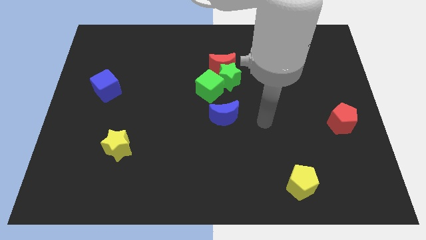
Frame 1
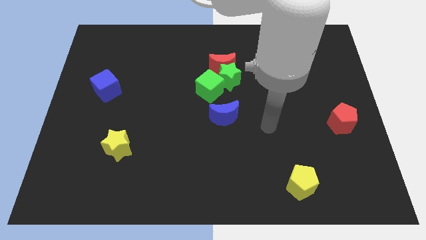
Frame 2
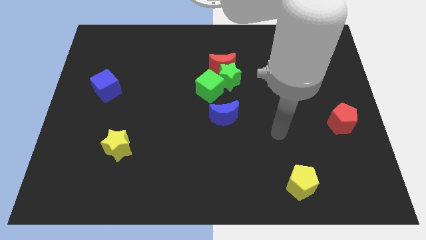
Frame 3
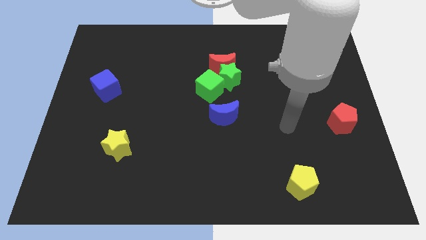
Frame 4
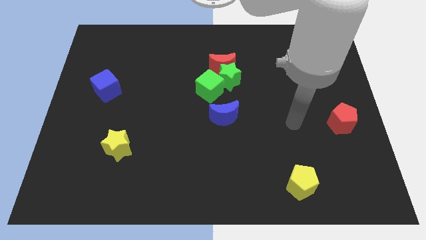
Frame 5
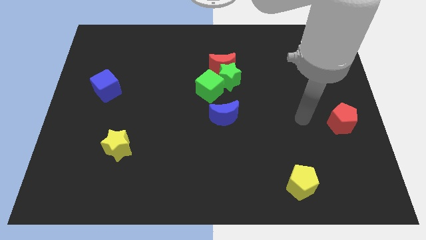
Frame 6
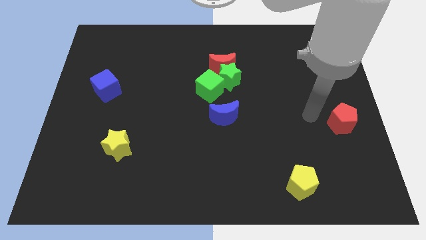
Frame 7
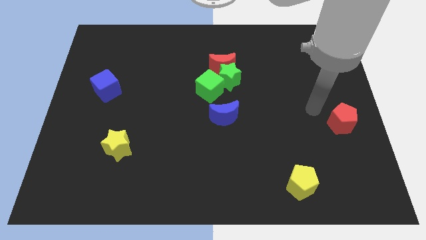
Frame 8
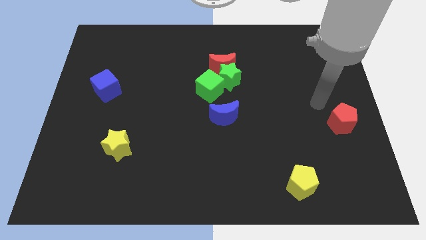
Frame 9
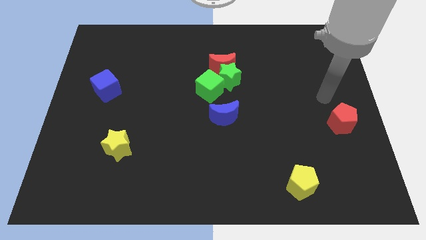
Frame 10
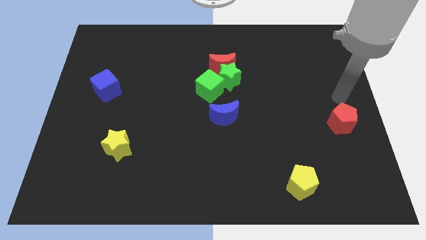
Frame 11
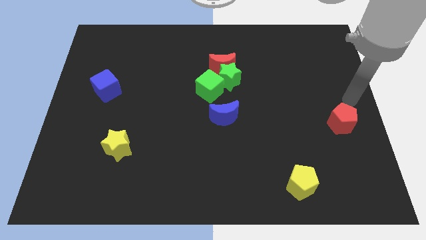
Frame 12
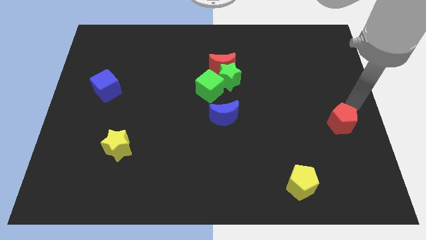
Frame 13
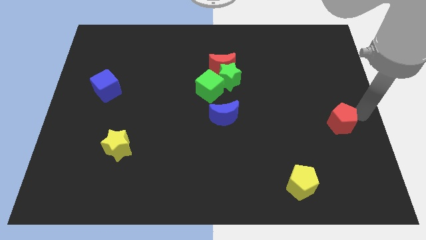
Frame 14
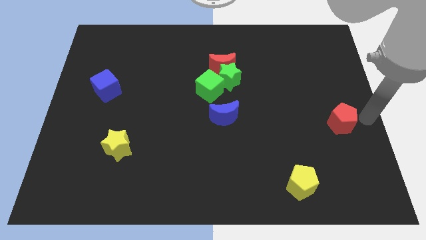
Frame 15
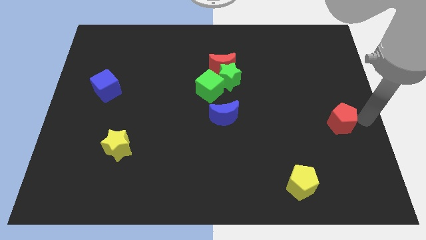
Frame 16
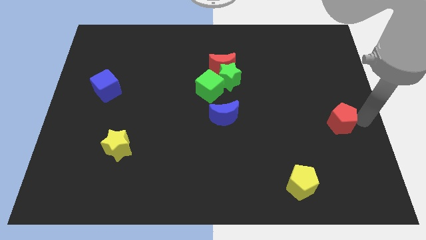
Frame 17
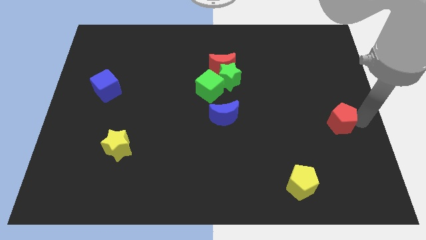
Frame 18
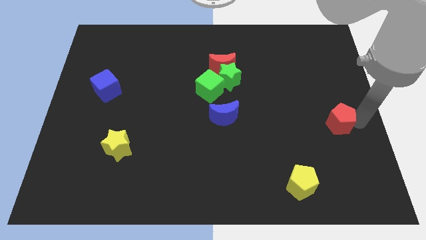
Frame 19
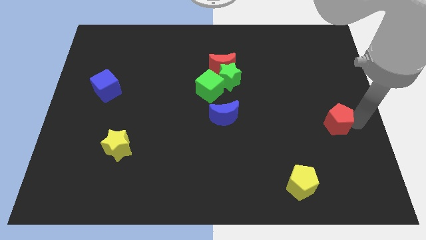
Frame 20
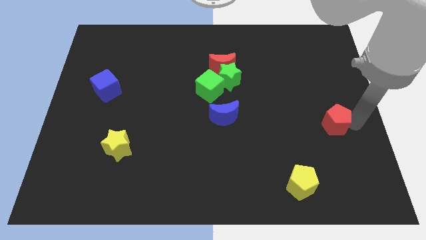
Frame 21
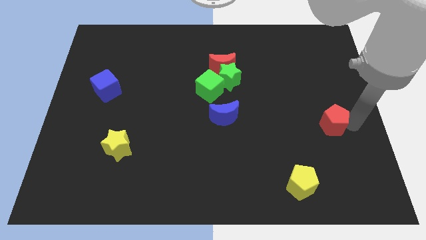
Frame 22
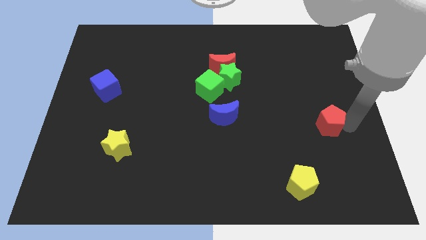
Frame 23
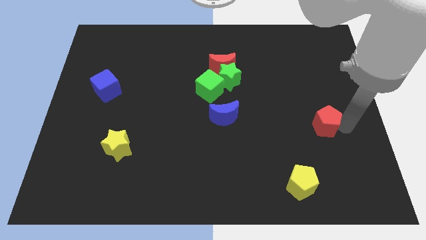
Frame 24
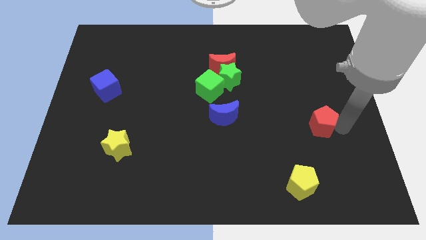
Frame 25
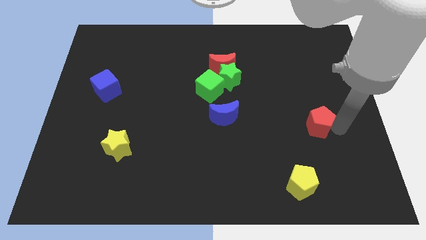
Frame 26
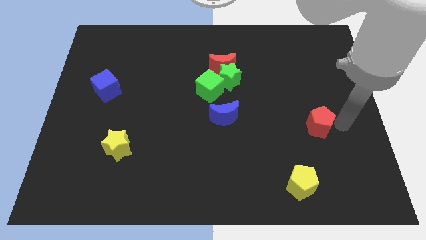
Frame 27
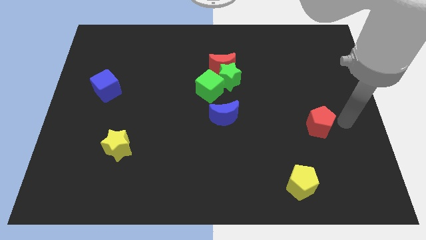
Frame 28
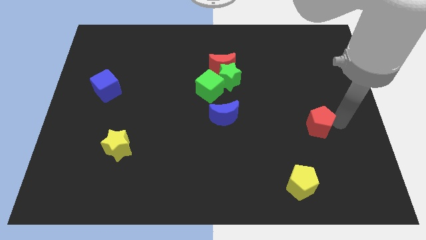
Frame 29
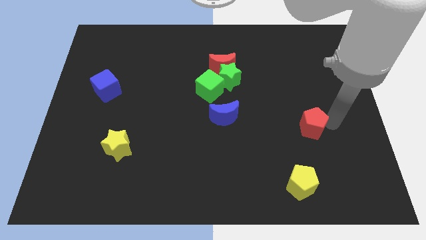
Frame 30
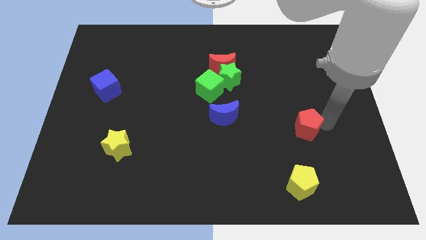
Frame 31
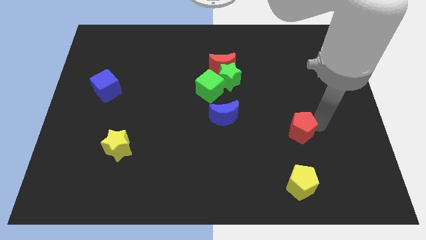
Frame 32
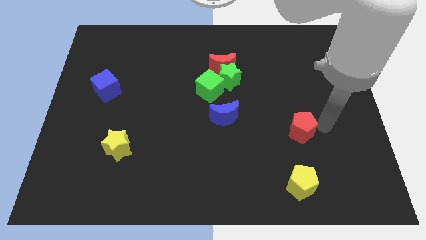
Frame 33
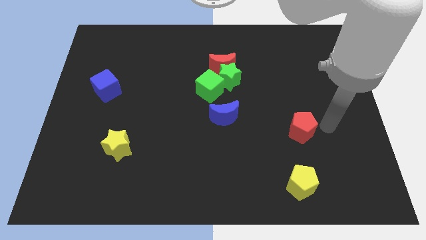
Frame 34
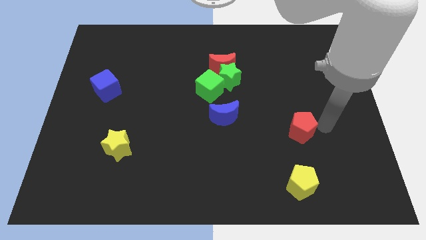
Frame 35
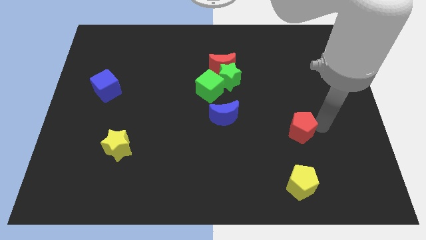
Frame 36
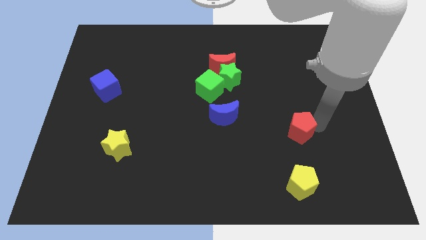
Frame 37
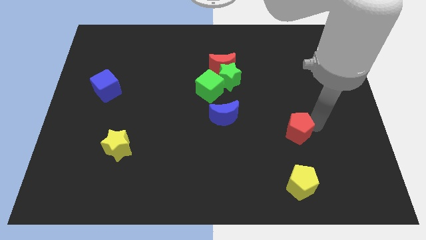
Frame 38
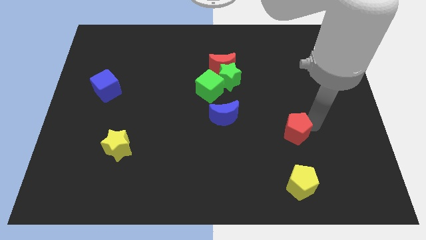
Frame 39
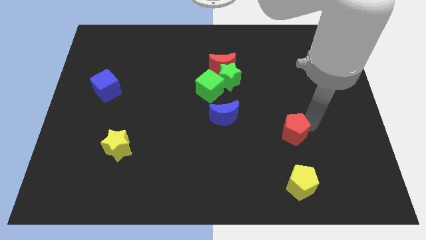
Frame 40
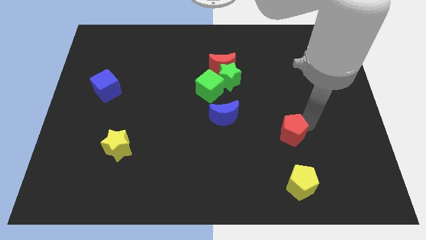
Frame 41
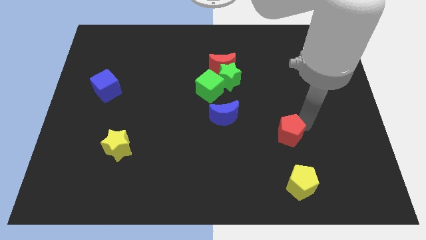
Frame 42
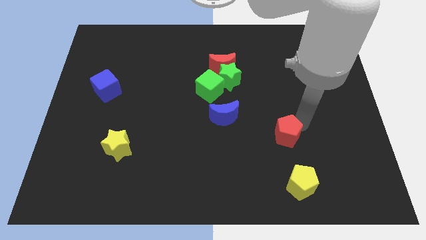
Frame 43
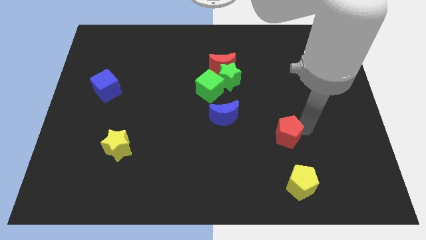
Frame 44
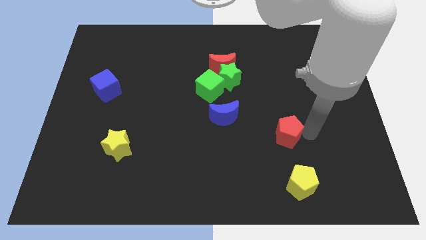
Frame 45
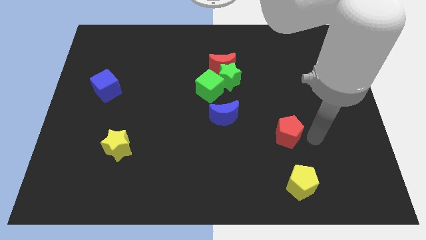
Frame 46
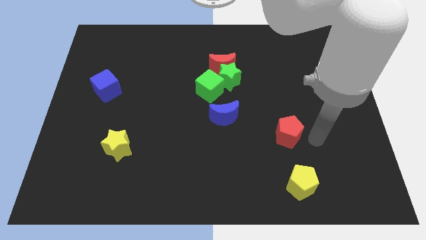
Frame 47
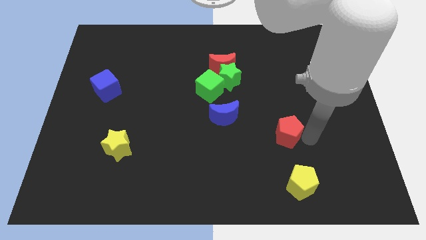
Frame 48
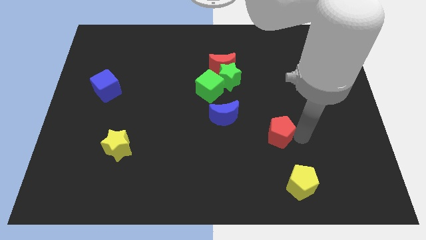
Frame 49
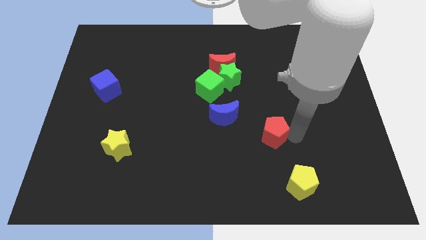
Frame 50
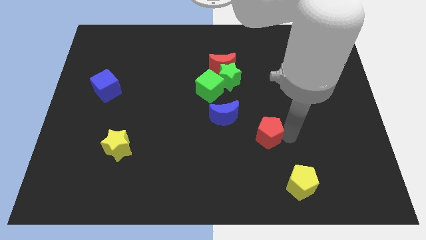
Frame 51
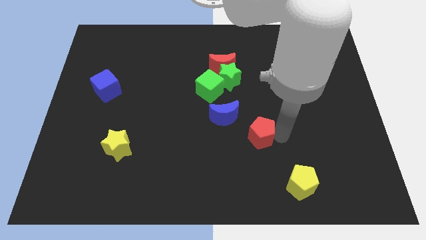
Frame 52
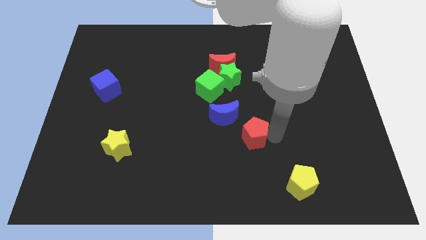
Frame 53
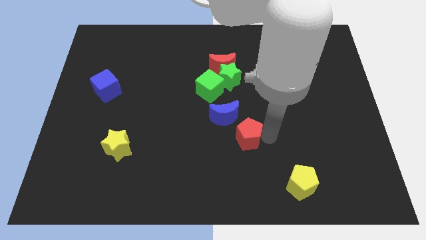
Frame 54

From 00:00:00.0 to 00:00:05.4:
move the red pentagon to the left

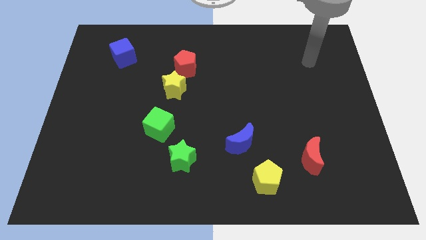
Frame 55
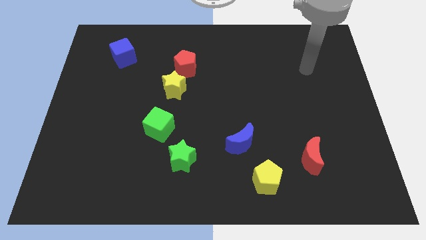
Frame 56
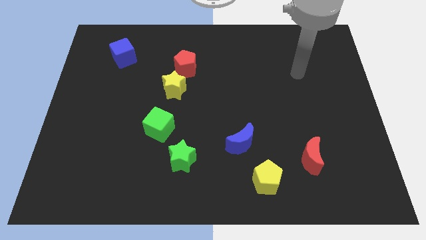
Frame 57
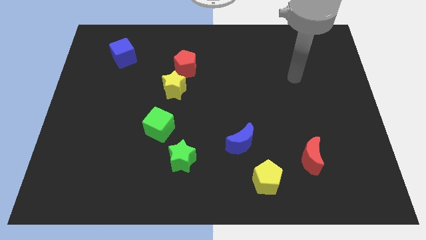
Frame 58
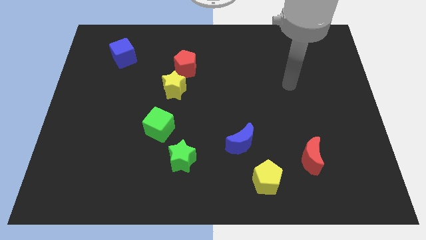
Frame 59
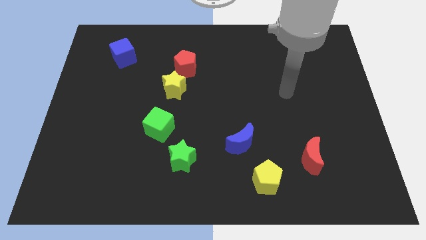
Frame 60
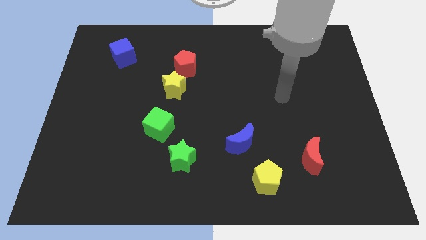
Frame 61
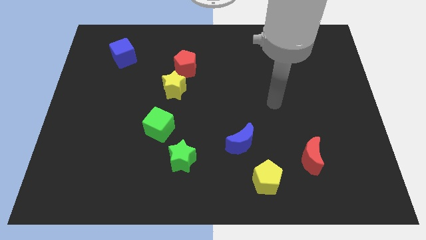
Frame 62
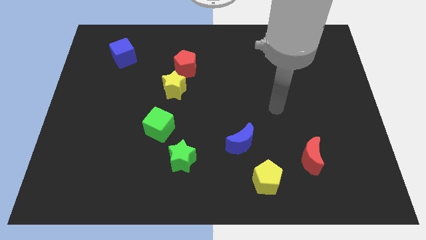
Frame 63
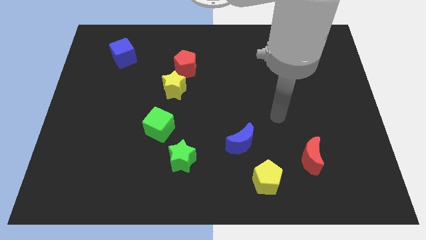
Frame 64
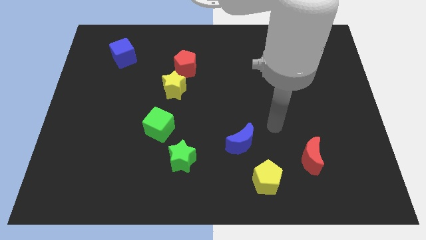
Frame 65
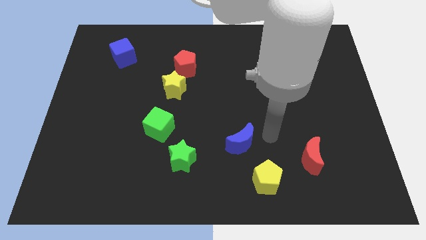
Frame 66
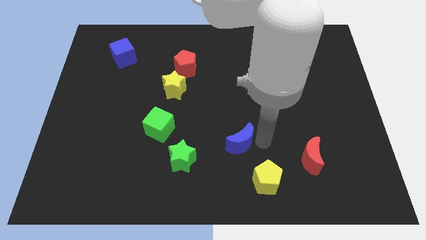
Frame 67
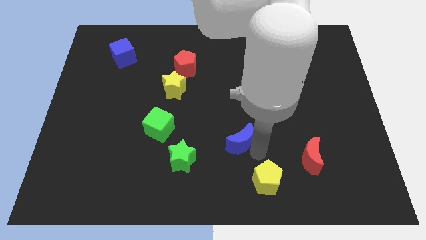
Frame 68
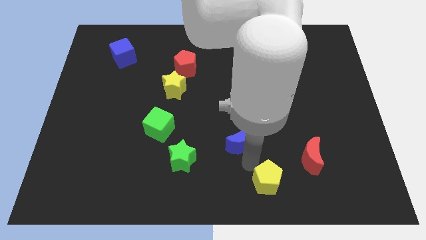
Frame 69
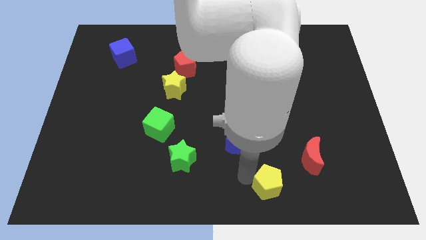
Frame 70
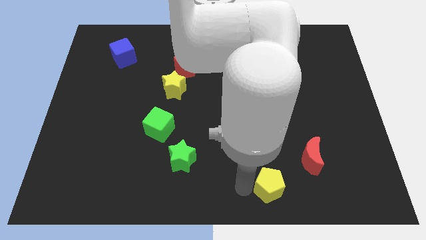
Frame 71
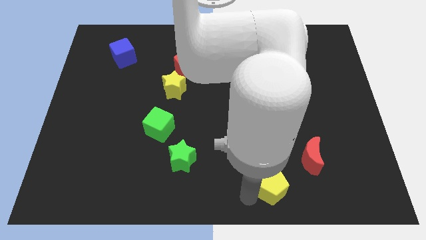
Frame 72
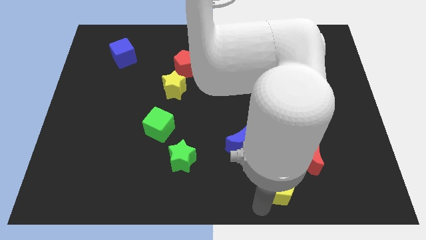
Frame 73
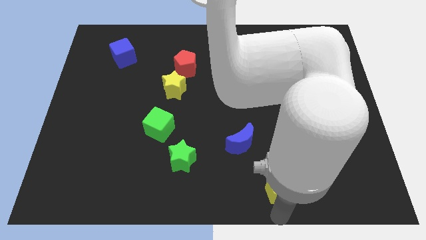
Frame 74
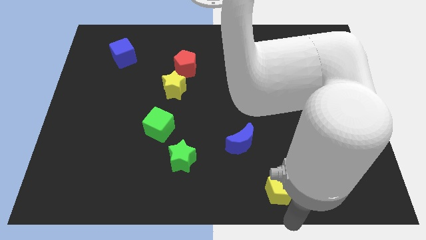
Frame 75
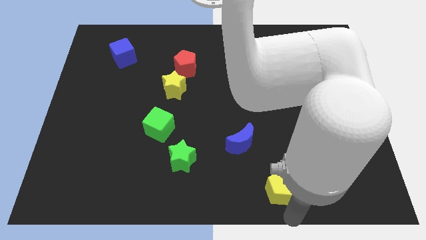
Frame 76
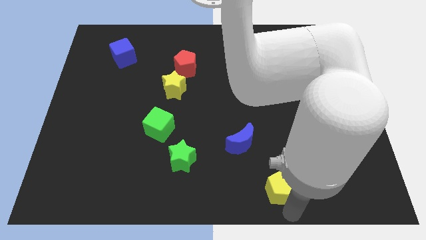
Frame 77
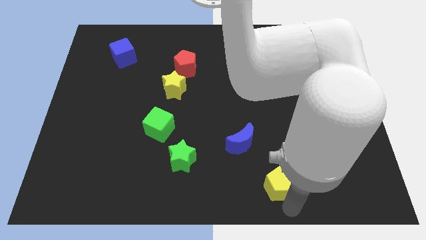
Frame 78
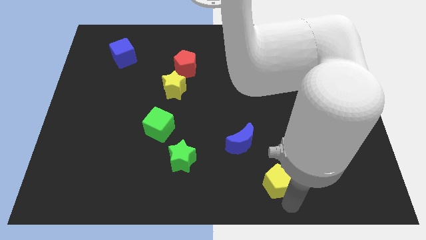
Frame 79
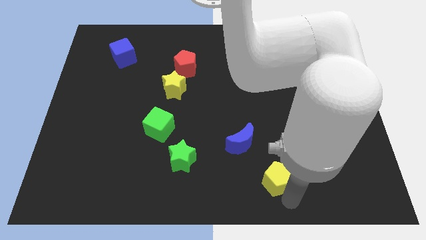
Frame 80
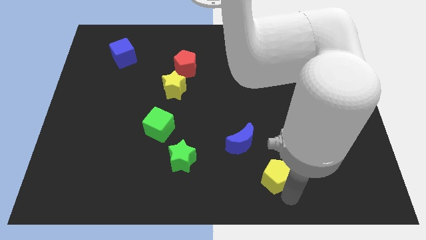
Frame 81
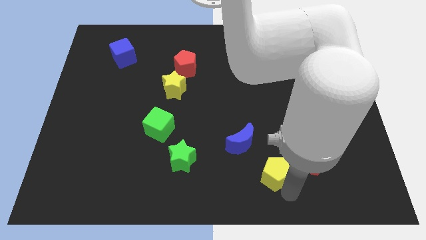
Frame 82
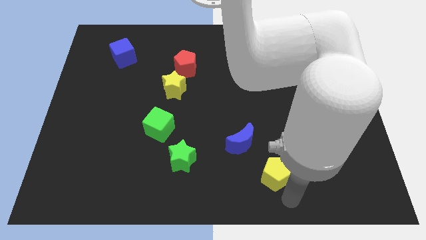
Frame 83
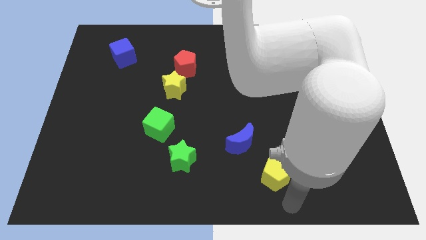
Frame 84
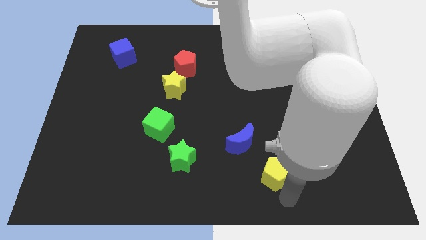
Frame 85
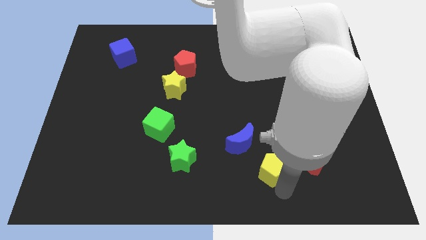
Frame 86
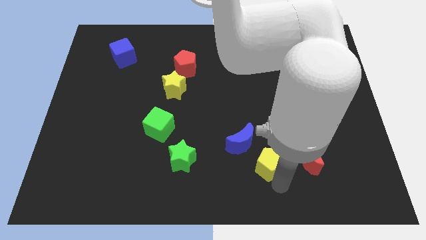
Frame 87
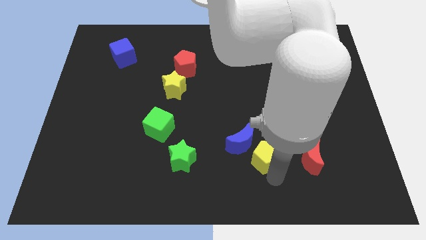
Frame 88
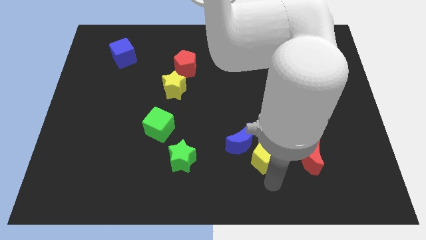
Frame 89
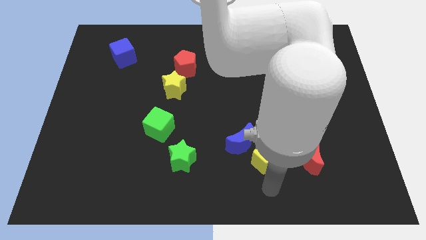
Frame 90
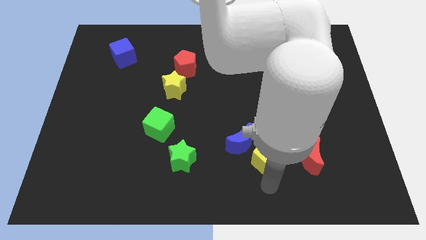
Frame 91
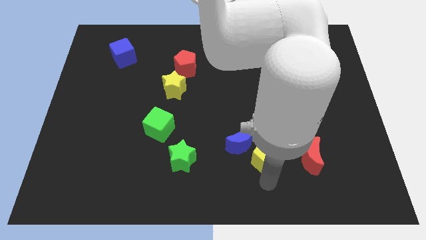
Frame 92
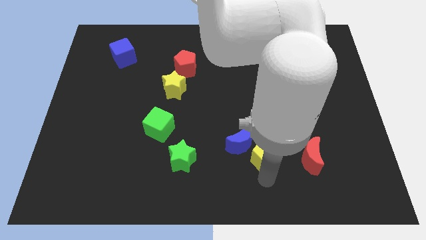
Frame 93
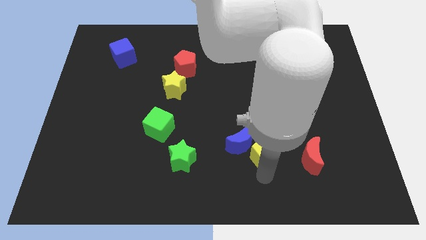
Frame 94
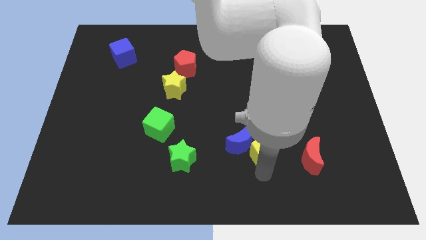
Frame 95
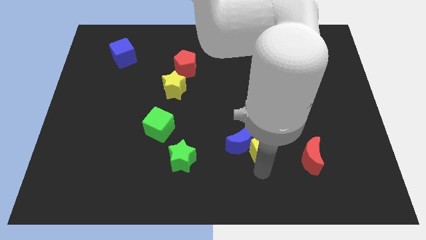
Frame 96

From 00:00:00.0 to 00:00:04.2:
slide the yellow pentagon upwards somewhat
